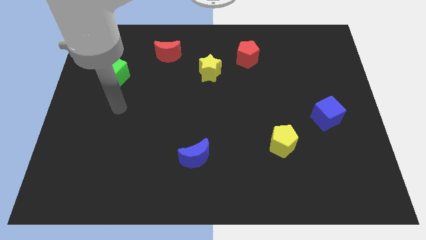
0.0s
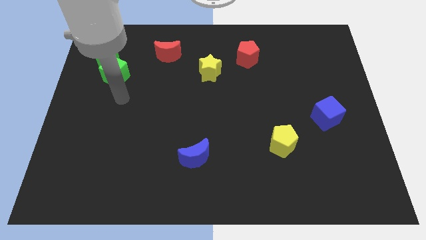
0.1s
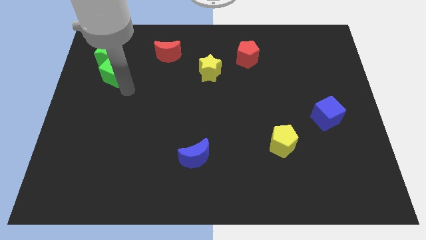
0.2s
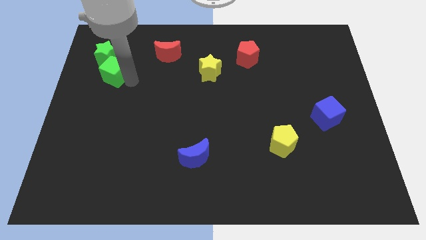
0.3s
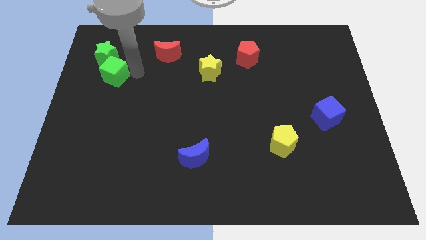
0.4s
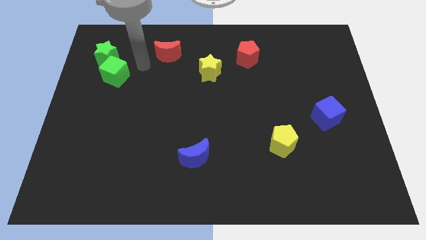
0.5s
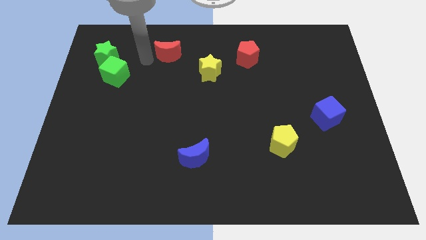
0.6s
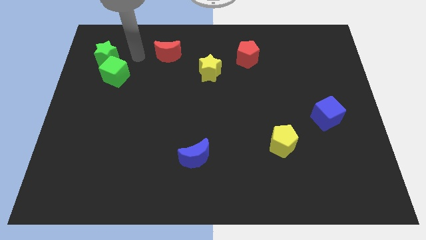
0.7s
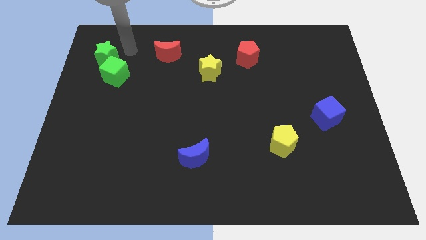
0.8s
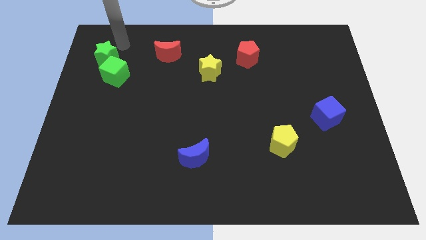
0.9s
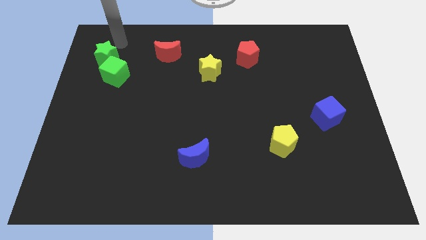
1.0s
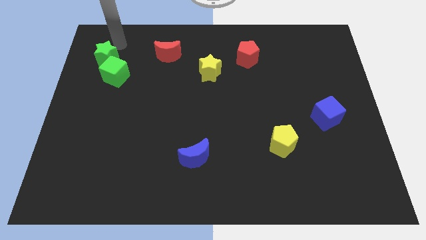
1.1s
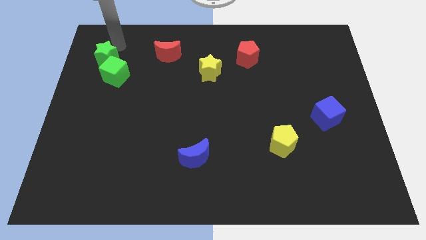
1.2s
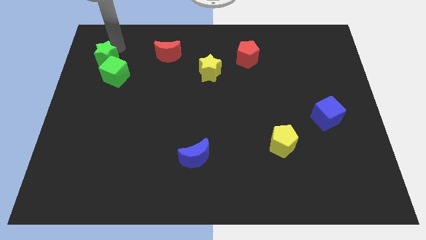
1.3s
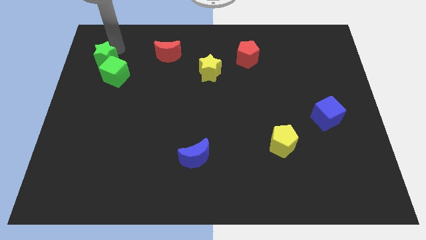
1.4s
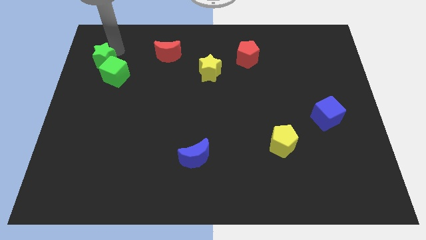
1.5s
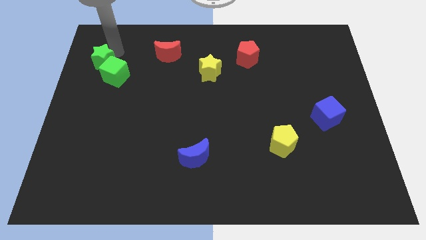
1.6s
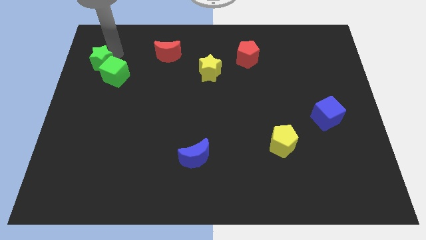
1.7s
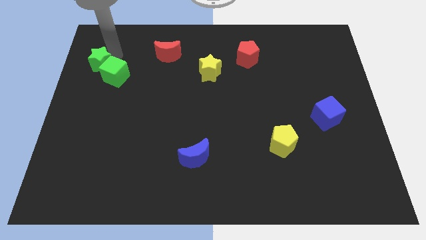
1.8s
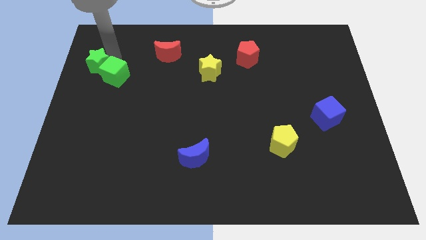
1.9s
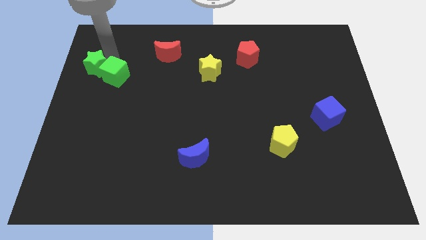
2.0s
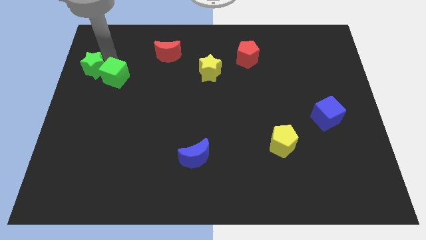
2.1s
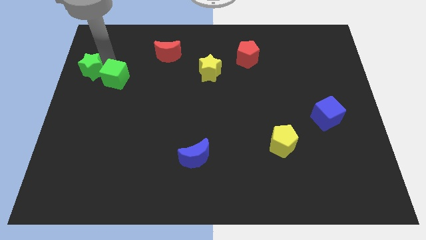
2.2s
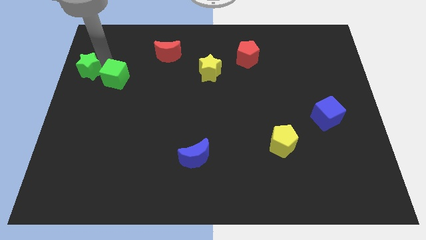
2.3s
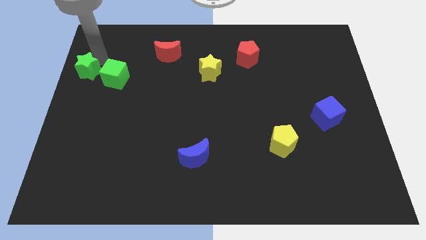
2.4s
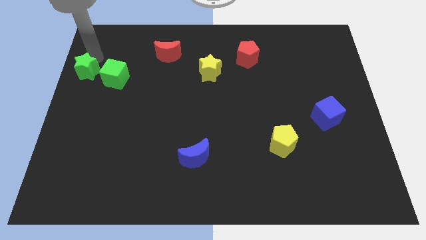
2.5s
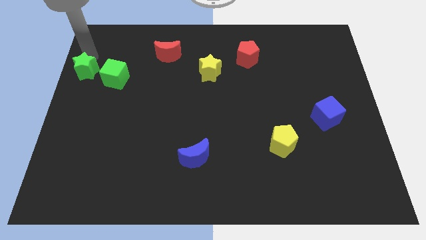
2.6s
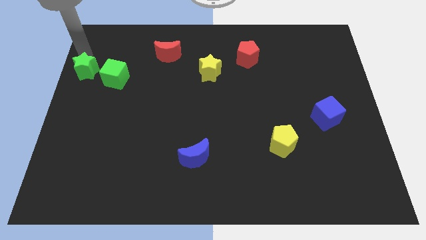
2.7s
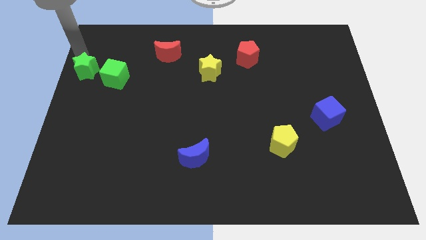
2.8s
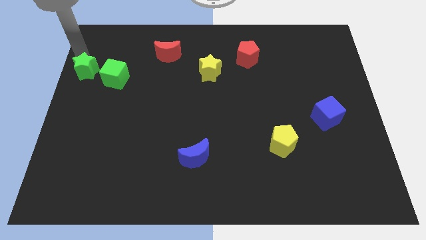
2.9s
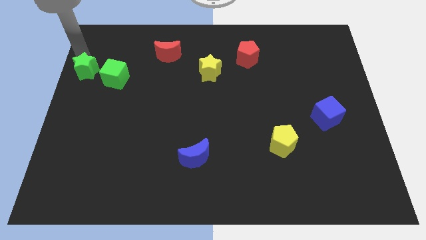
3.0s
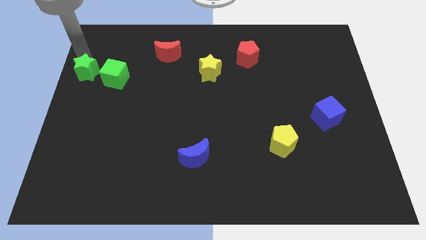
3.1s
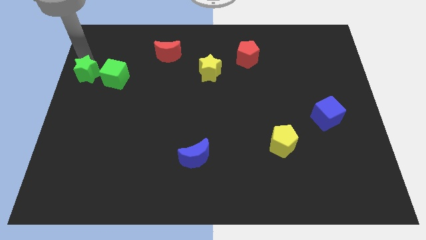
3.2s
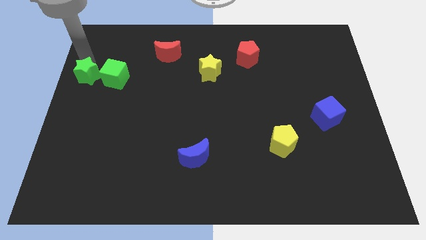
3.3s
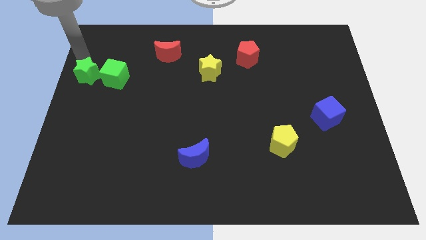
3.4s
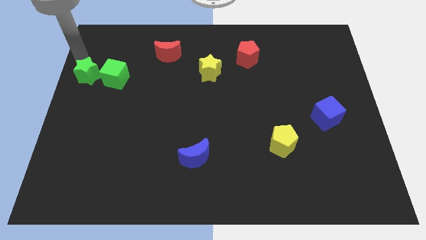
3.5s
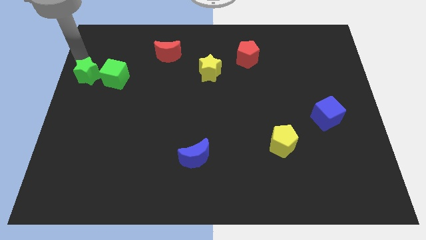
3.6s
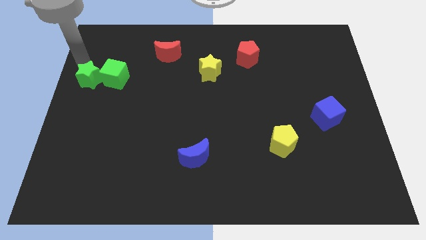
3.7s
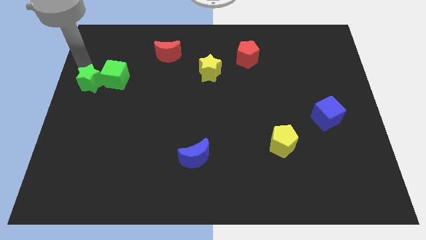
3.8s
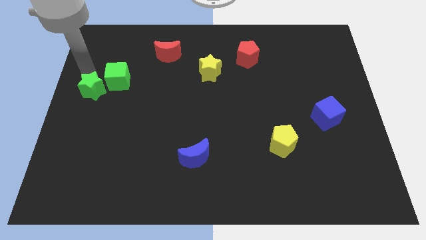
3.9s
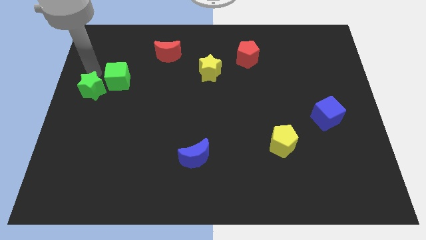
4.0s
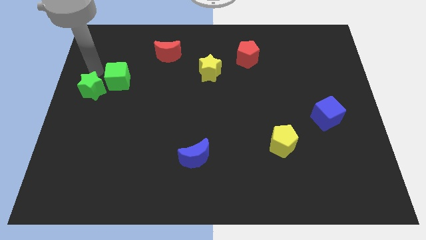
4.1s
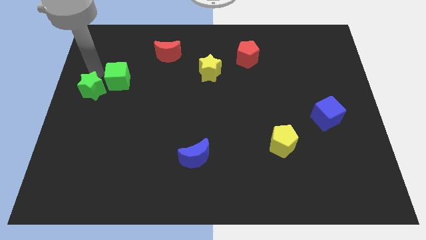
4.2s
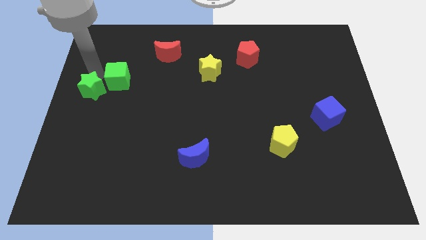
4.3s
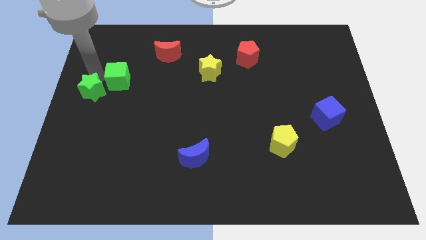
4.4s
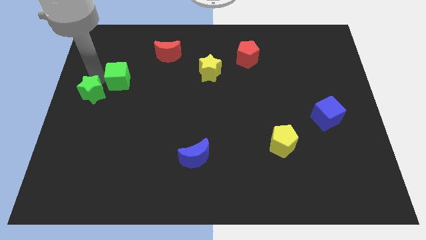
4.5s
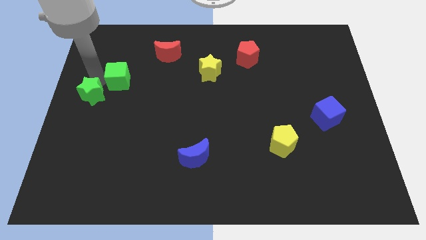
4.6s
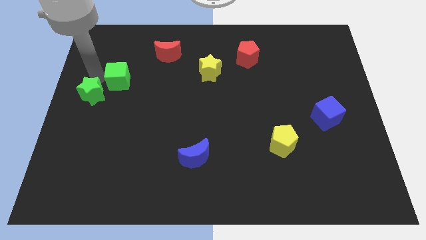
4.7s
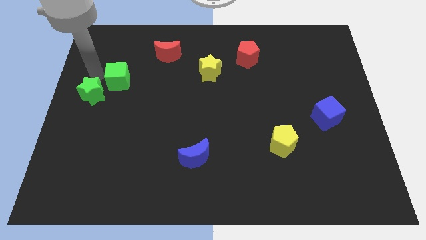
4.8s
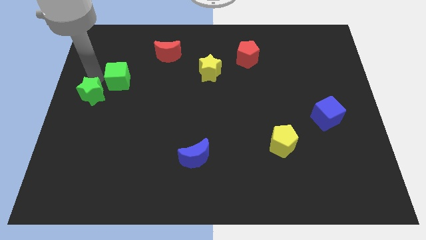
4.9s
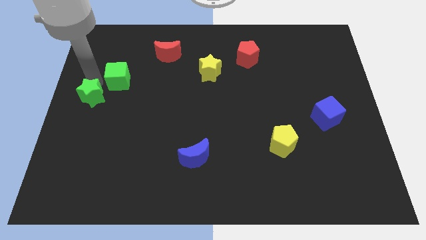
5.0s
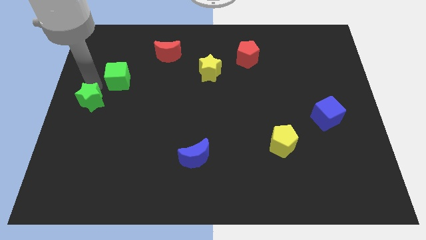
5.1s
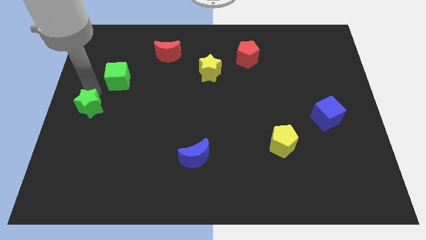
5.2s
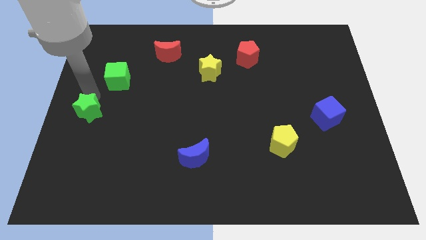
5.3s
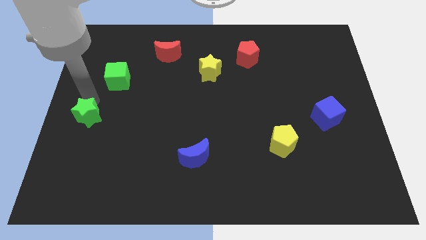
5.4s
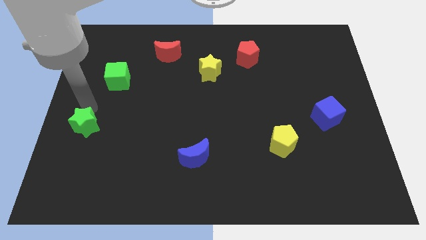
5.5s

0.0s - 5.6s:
move the green star down

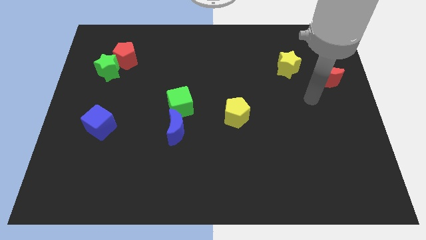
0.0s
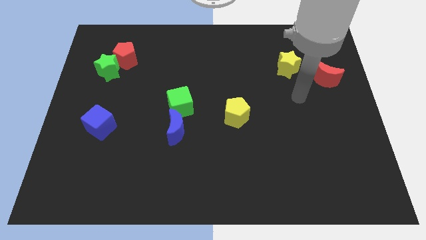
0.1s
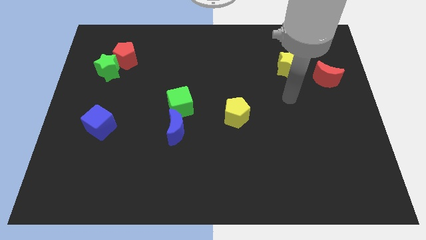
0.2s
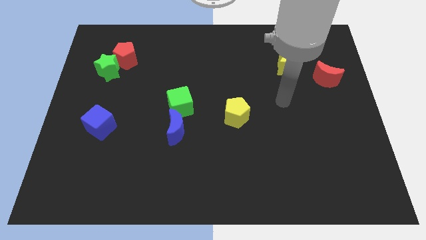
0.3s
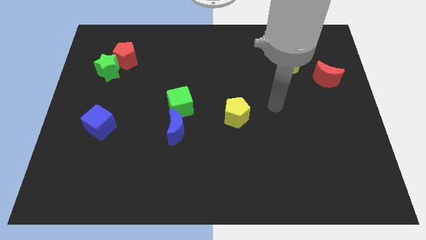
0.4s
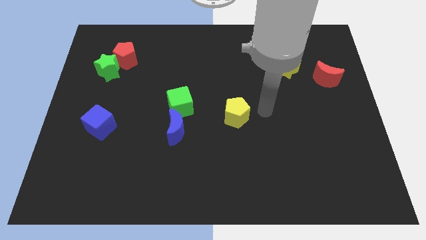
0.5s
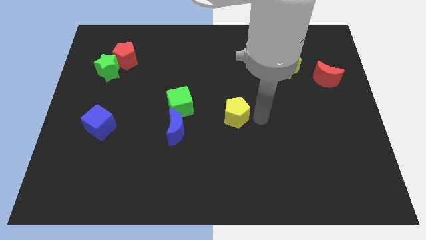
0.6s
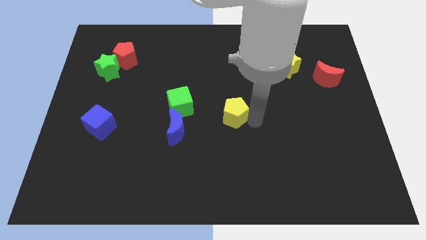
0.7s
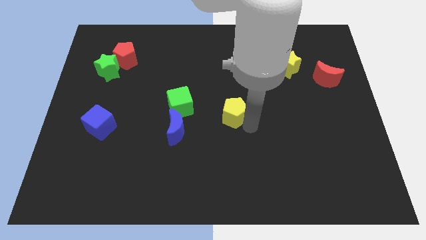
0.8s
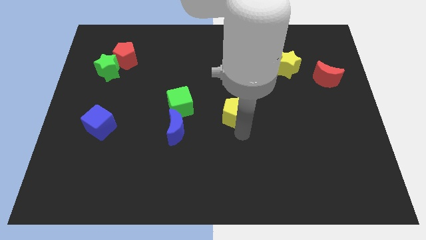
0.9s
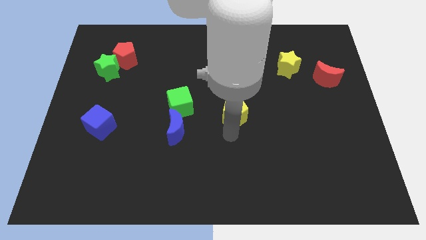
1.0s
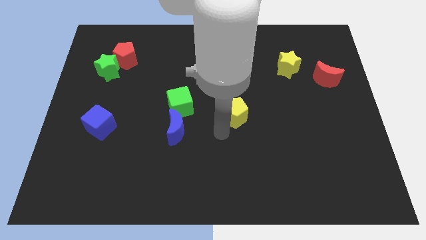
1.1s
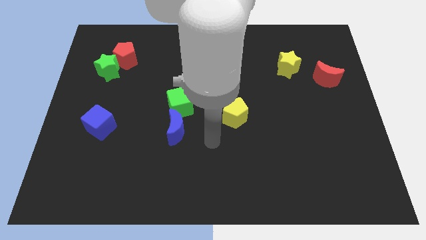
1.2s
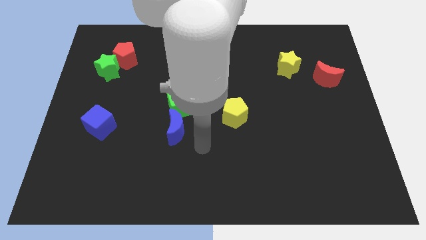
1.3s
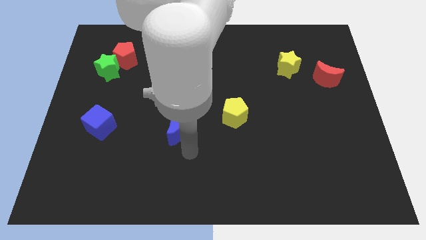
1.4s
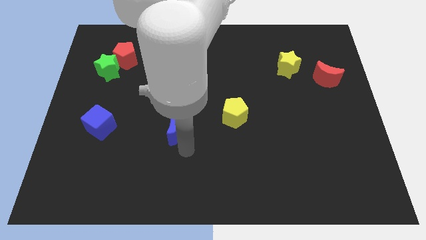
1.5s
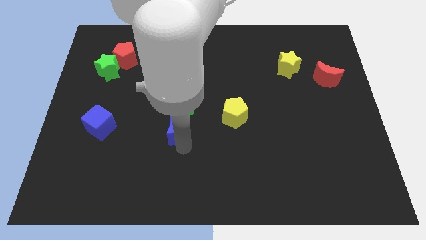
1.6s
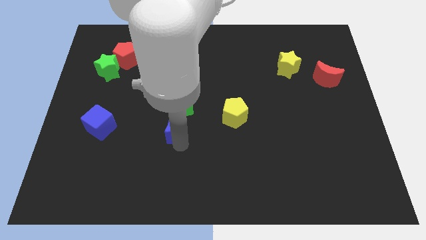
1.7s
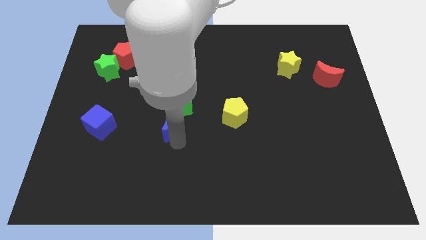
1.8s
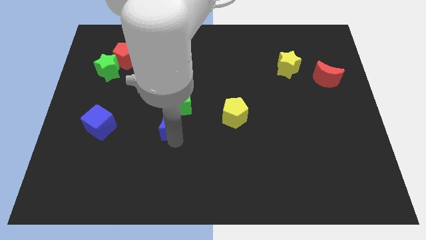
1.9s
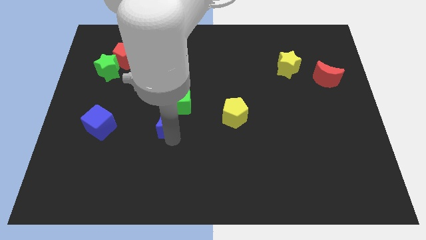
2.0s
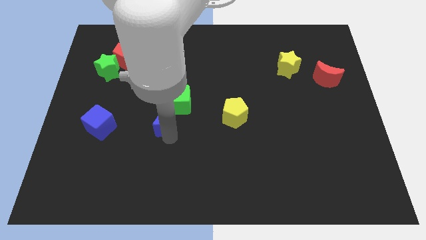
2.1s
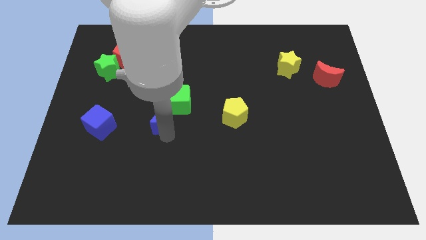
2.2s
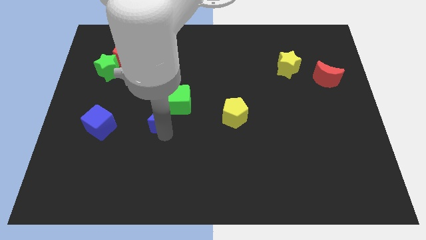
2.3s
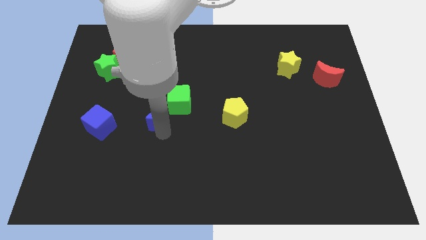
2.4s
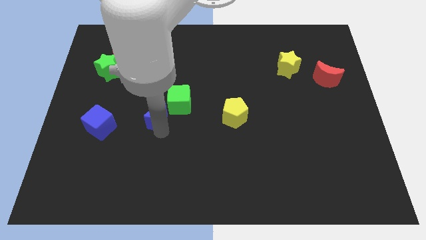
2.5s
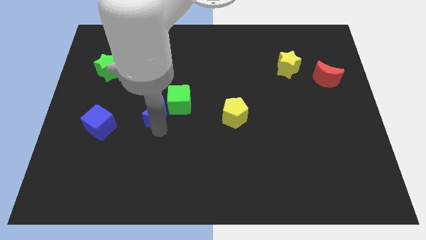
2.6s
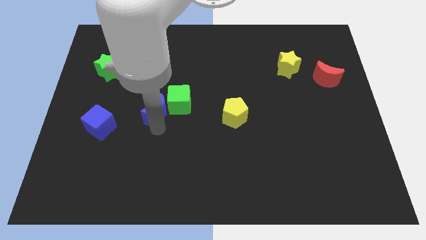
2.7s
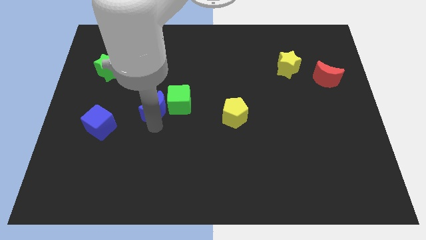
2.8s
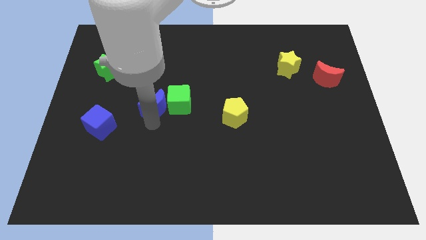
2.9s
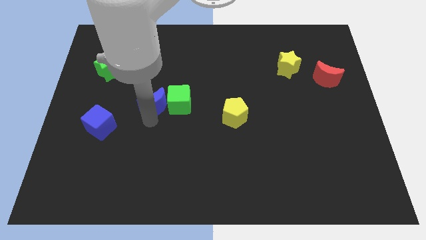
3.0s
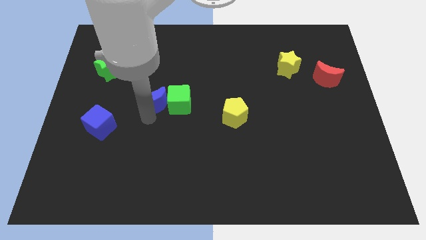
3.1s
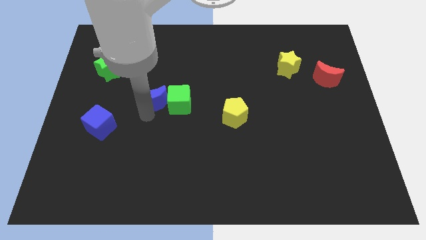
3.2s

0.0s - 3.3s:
slightly push the blue moon up
